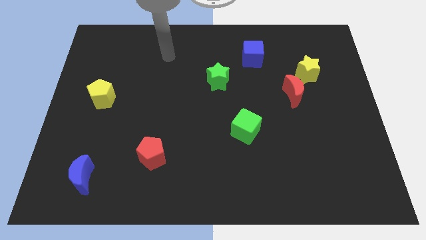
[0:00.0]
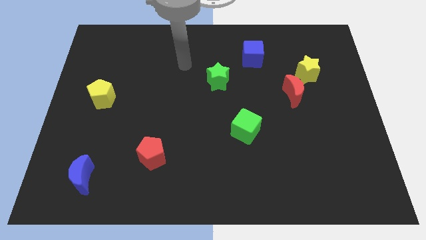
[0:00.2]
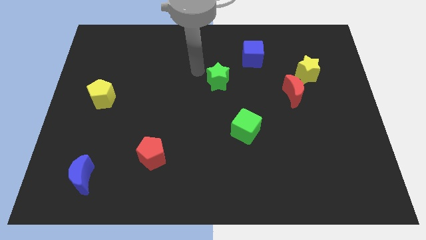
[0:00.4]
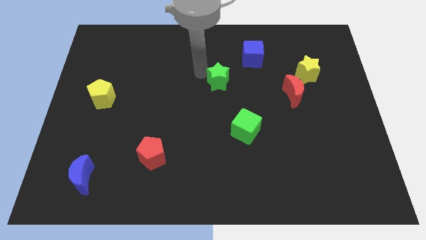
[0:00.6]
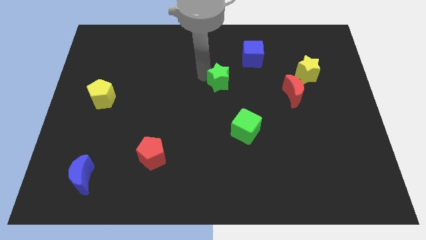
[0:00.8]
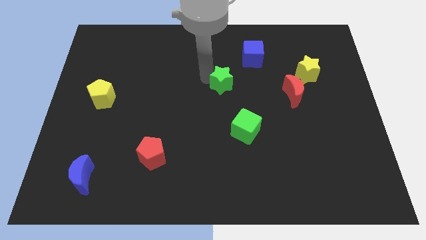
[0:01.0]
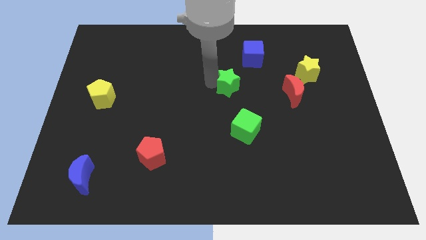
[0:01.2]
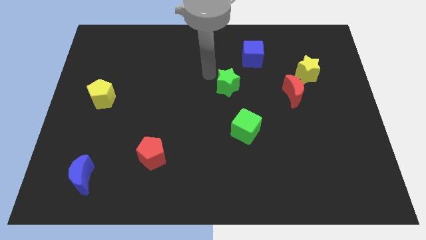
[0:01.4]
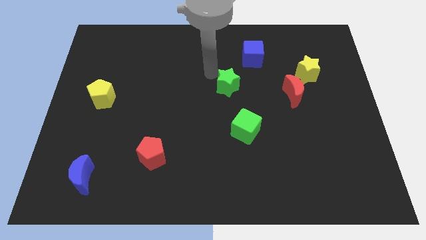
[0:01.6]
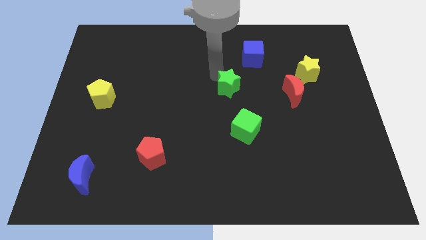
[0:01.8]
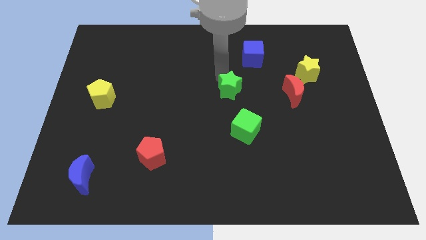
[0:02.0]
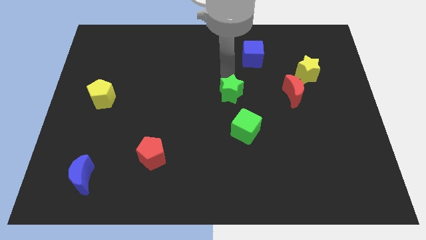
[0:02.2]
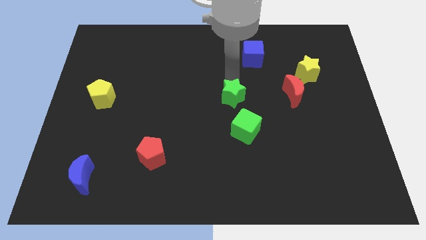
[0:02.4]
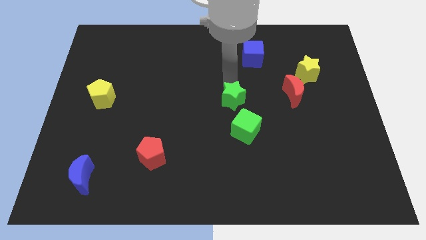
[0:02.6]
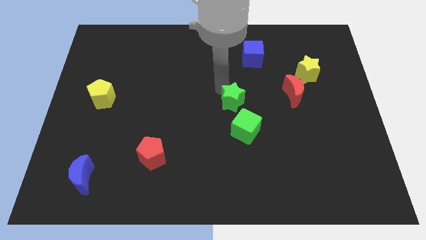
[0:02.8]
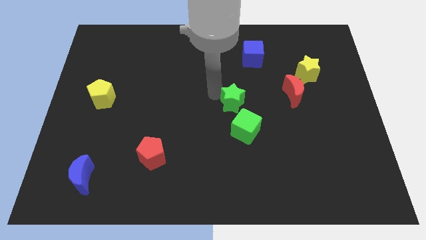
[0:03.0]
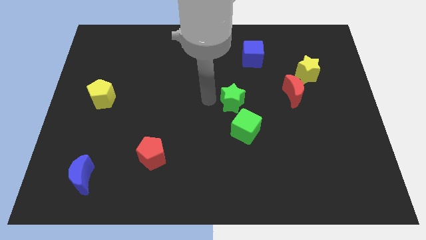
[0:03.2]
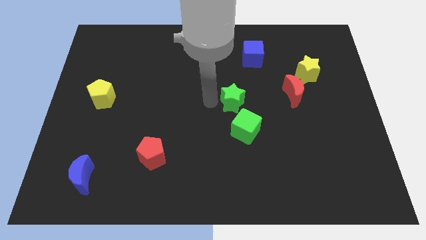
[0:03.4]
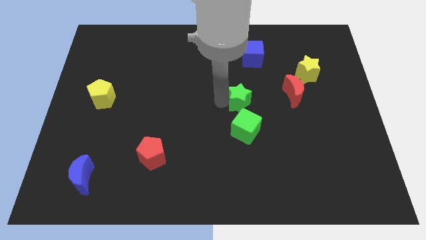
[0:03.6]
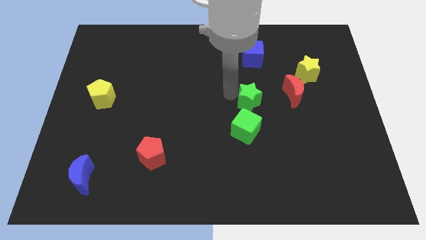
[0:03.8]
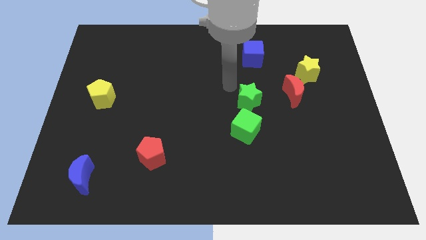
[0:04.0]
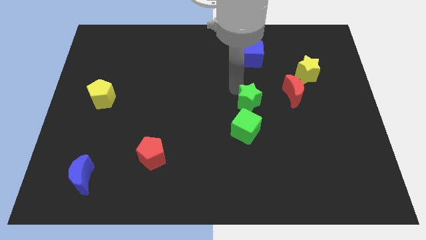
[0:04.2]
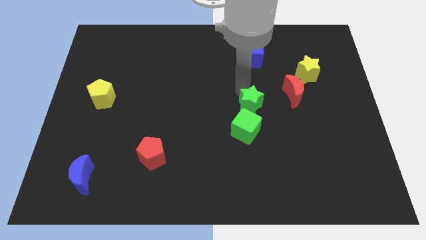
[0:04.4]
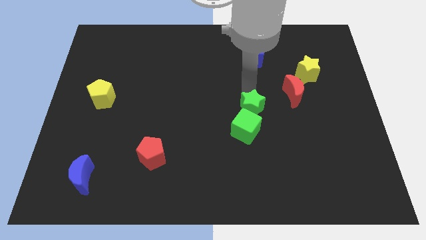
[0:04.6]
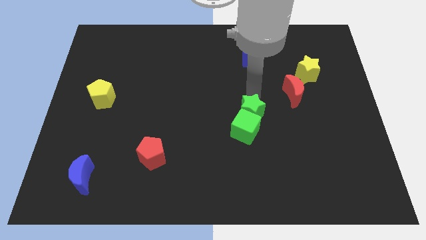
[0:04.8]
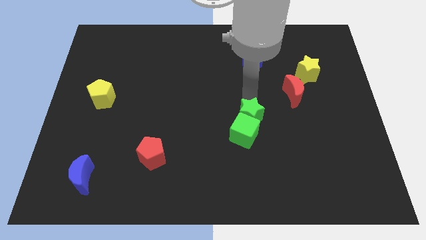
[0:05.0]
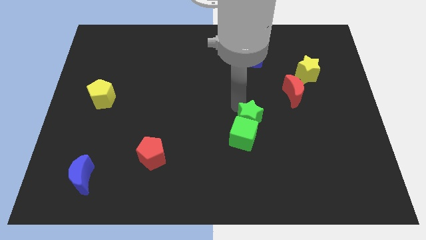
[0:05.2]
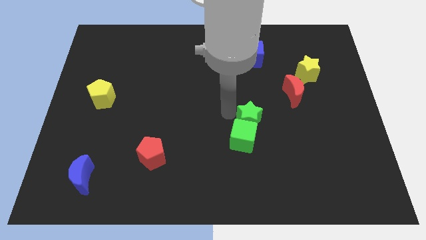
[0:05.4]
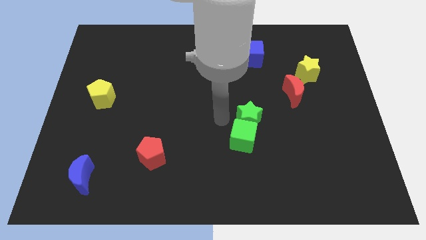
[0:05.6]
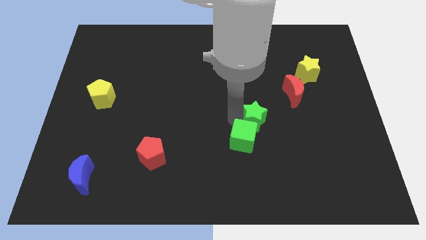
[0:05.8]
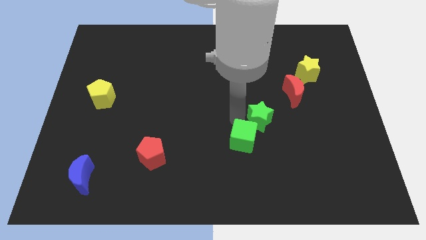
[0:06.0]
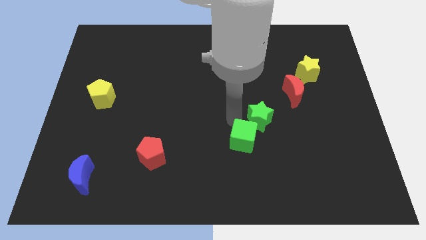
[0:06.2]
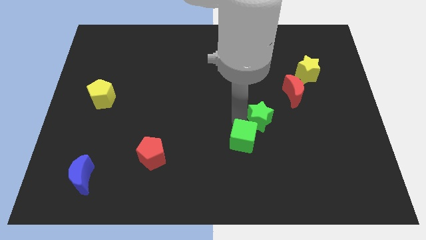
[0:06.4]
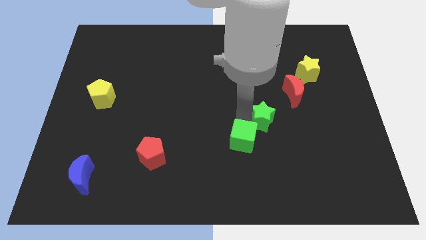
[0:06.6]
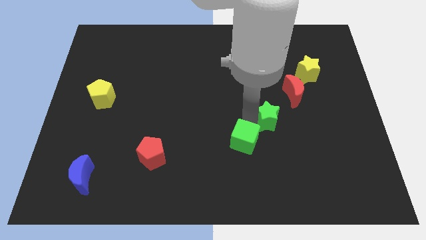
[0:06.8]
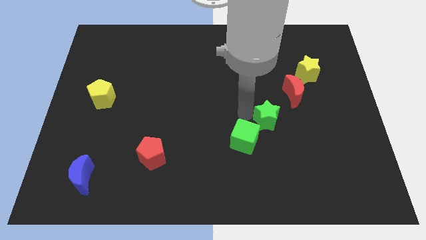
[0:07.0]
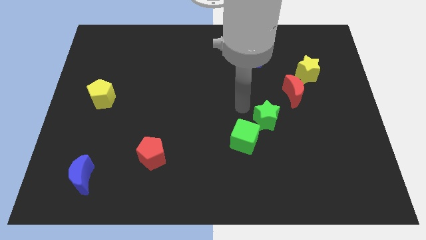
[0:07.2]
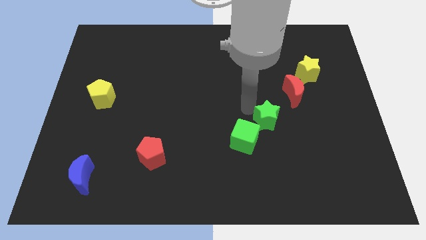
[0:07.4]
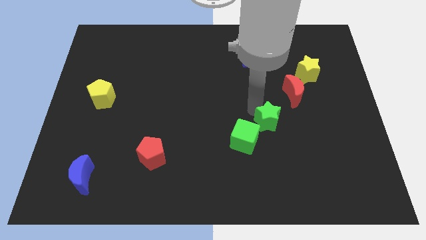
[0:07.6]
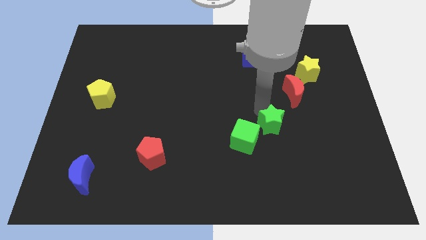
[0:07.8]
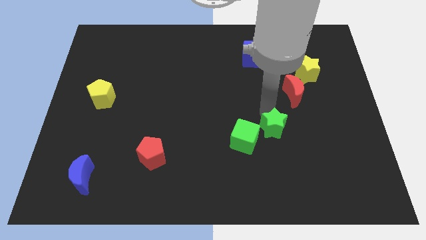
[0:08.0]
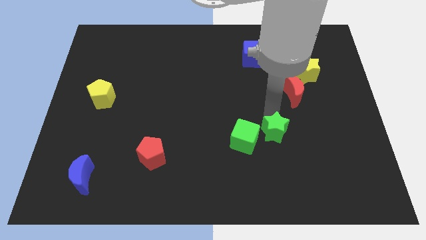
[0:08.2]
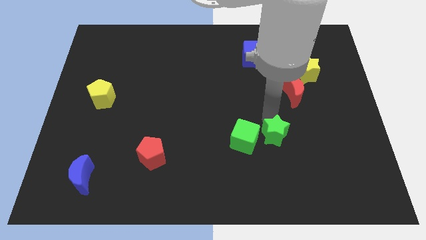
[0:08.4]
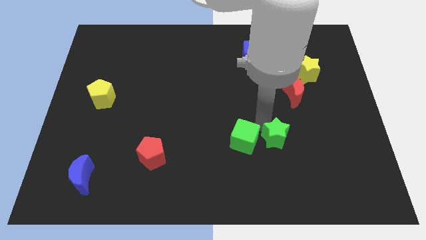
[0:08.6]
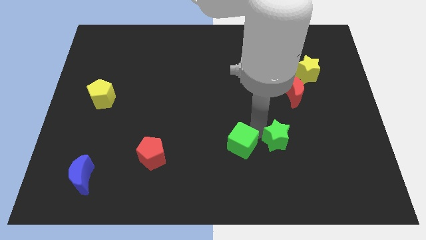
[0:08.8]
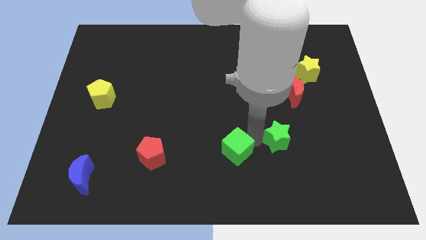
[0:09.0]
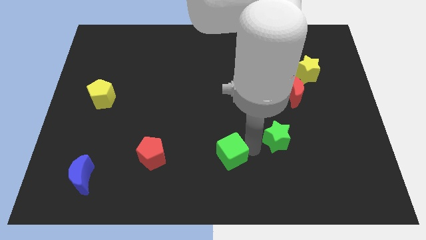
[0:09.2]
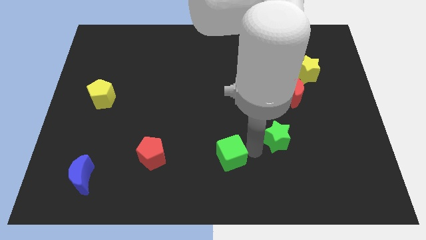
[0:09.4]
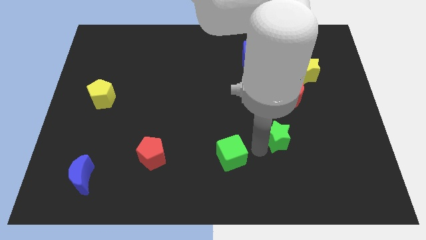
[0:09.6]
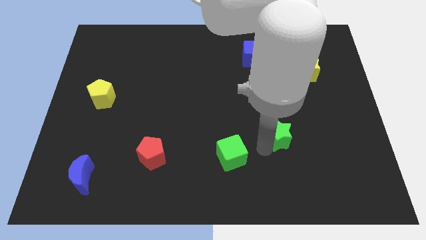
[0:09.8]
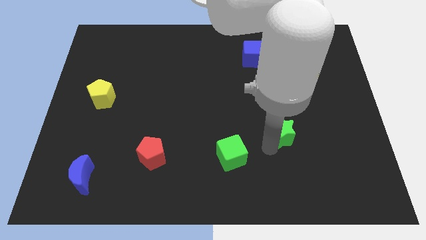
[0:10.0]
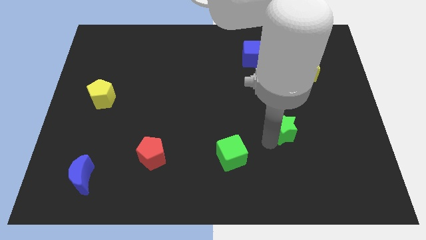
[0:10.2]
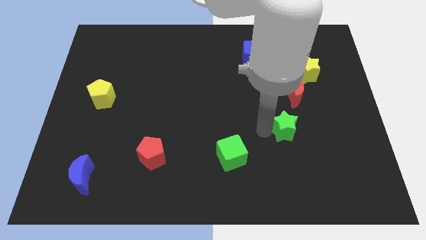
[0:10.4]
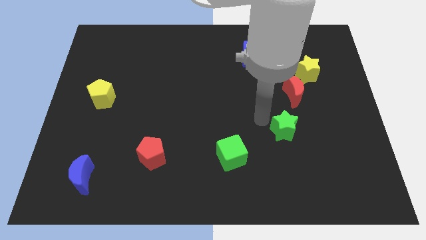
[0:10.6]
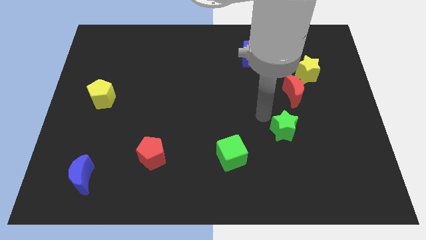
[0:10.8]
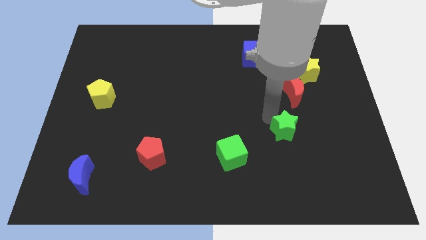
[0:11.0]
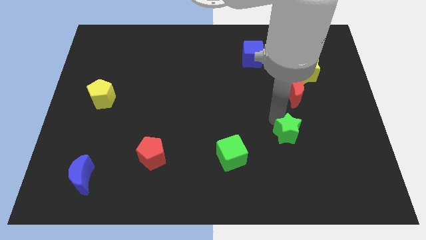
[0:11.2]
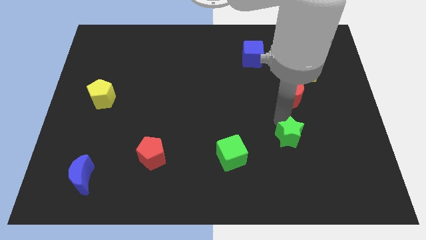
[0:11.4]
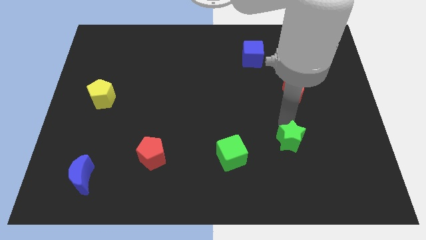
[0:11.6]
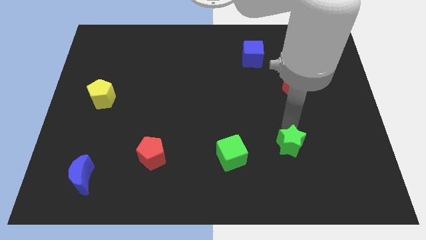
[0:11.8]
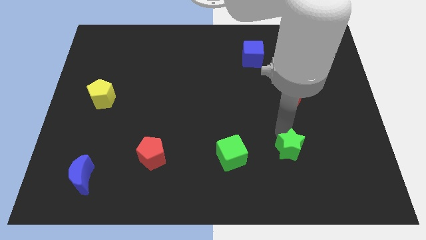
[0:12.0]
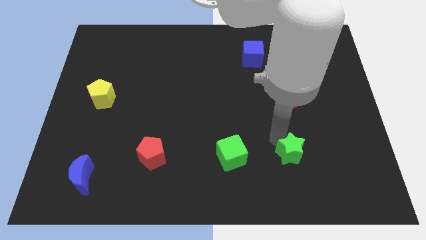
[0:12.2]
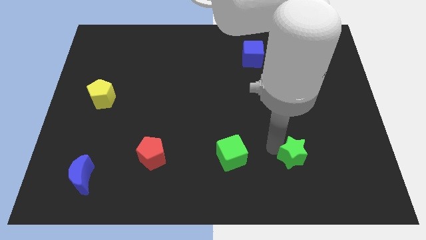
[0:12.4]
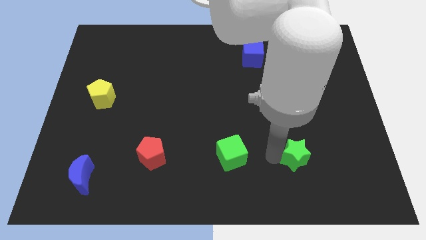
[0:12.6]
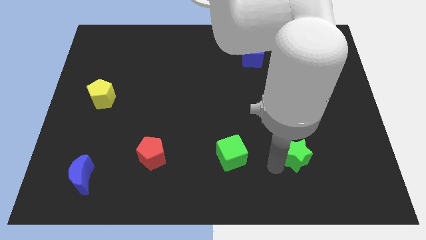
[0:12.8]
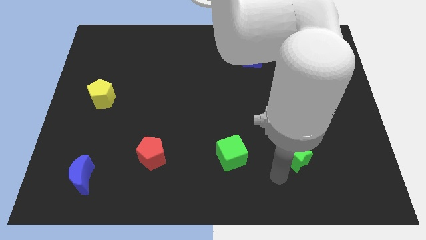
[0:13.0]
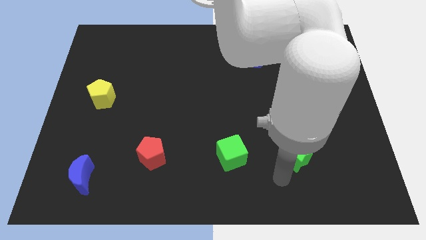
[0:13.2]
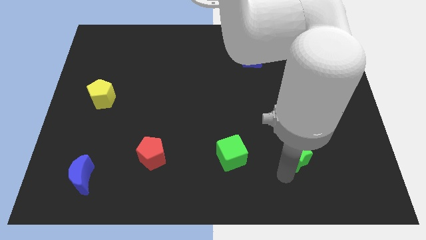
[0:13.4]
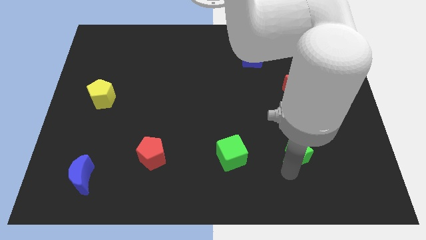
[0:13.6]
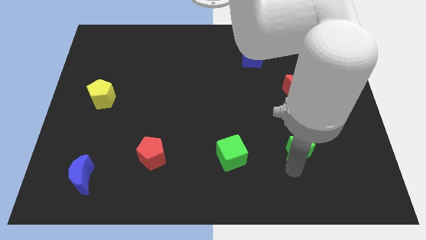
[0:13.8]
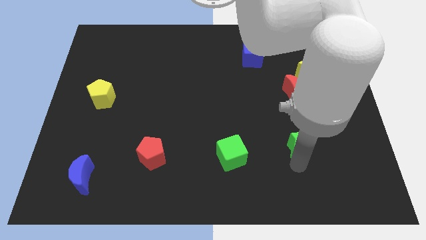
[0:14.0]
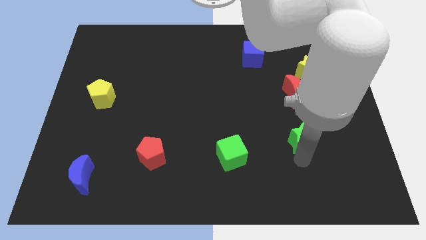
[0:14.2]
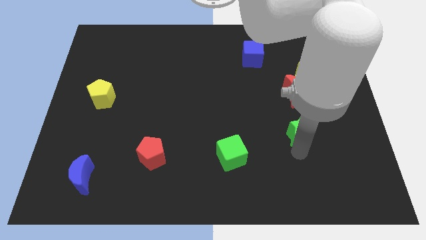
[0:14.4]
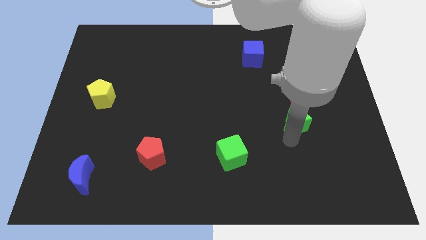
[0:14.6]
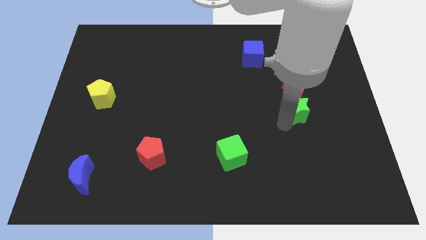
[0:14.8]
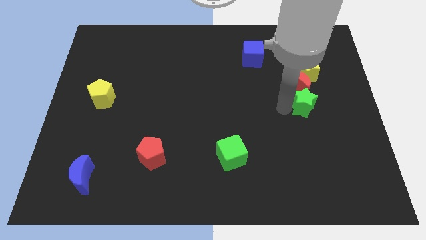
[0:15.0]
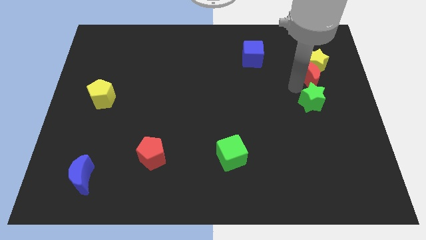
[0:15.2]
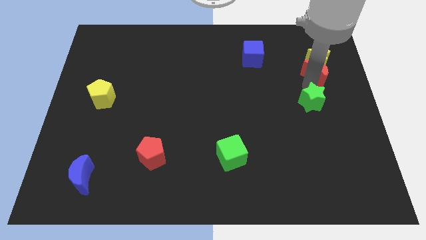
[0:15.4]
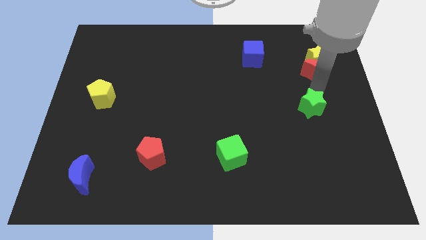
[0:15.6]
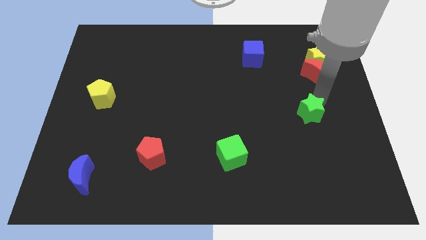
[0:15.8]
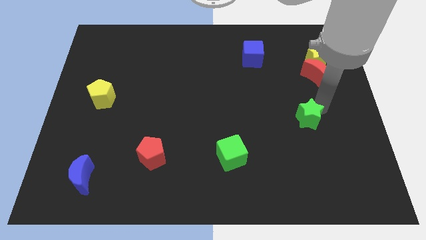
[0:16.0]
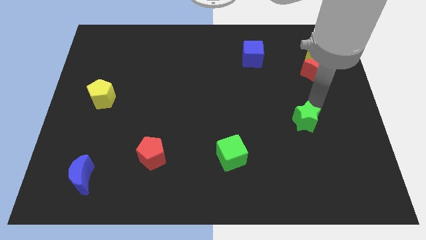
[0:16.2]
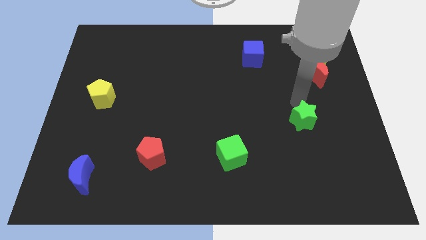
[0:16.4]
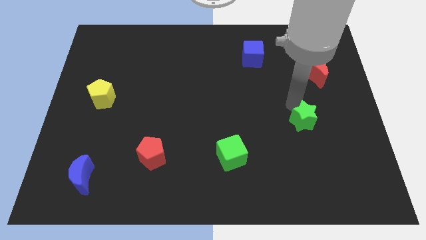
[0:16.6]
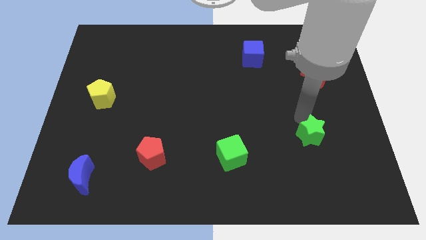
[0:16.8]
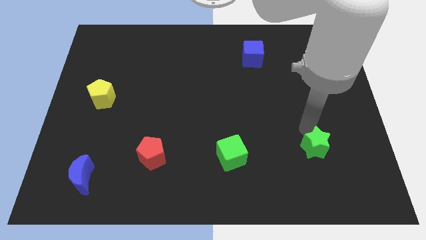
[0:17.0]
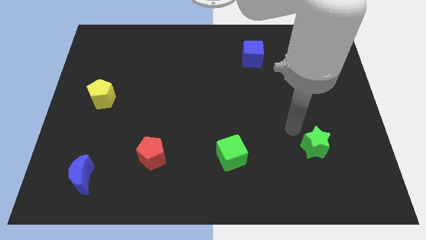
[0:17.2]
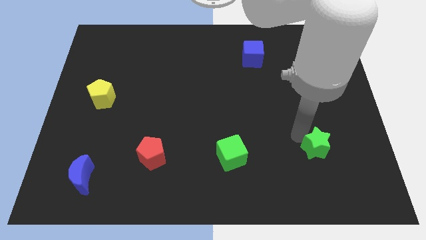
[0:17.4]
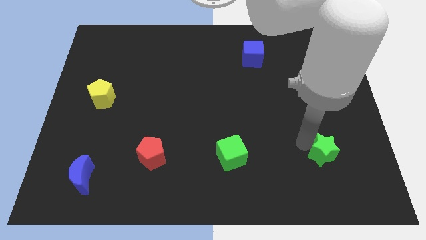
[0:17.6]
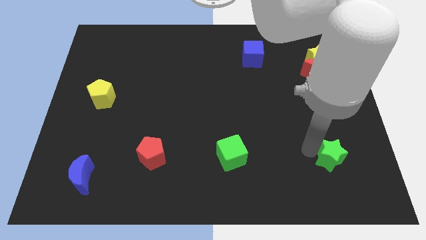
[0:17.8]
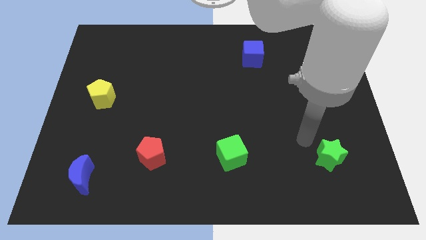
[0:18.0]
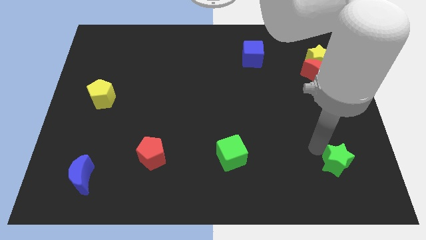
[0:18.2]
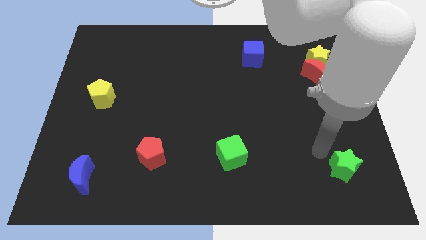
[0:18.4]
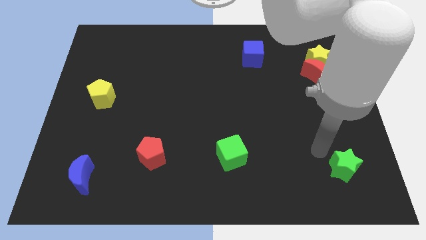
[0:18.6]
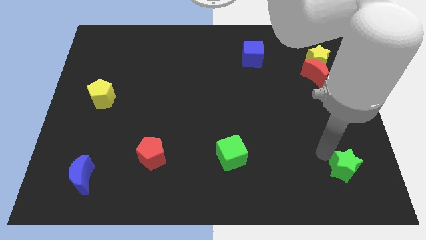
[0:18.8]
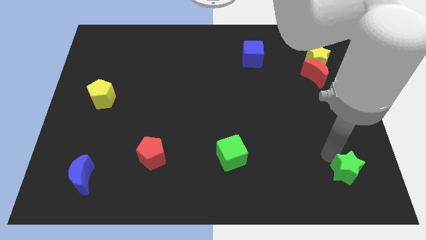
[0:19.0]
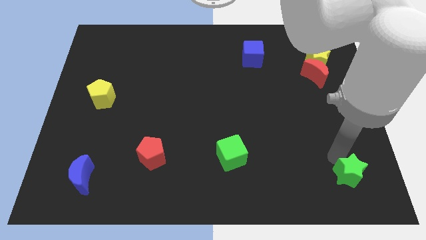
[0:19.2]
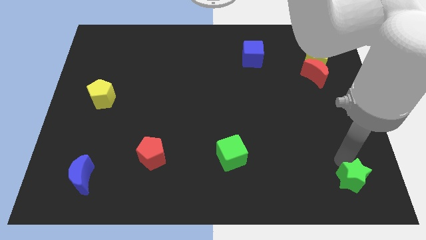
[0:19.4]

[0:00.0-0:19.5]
move the green star to the bottom right of the board
